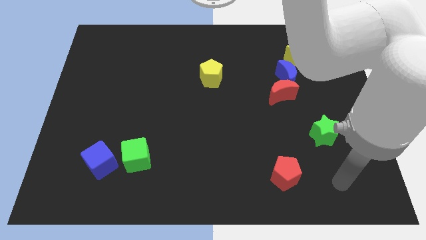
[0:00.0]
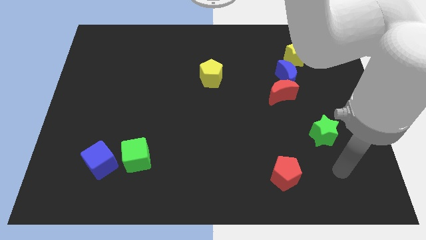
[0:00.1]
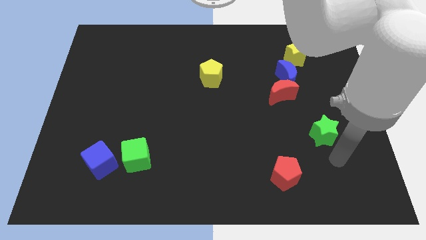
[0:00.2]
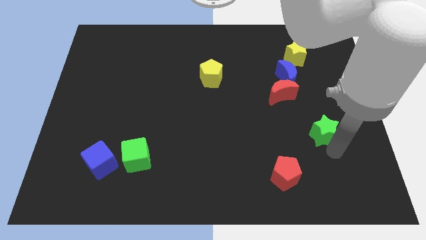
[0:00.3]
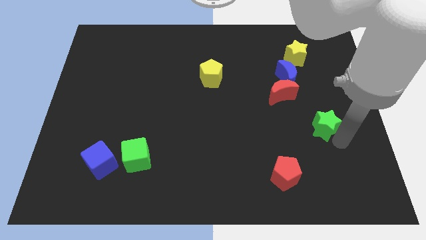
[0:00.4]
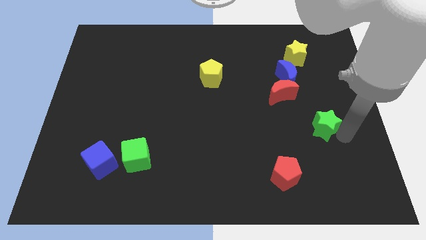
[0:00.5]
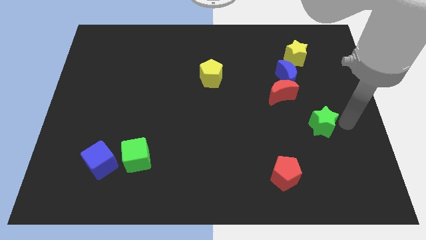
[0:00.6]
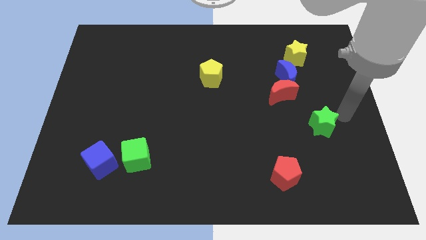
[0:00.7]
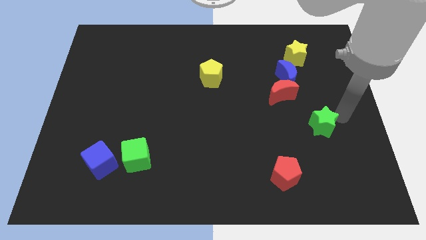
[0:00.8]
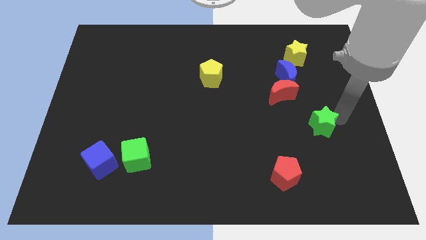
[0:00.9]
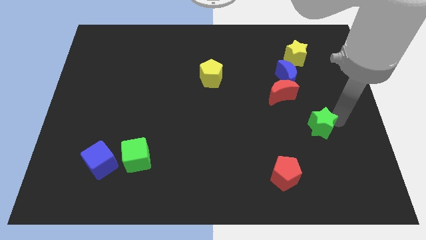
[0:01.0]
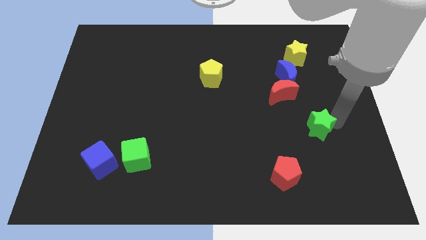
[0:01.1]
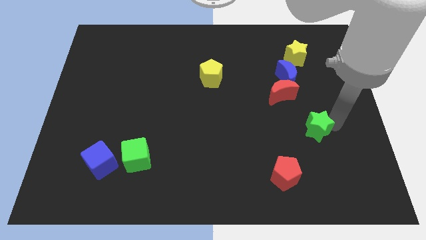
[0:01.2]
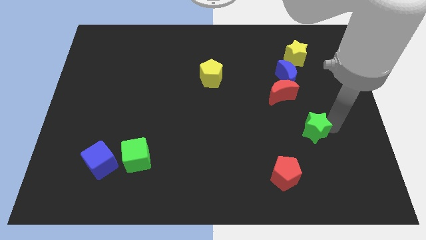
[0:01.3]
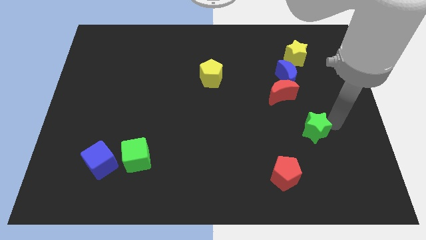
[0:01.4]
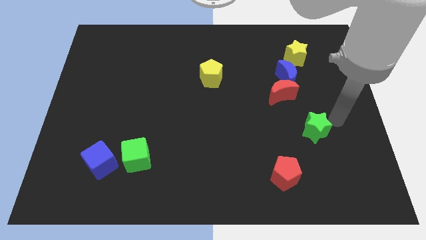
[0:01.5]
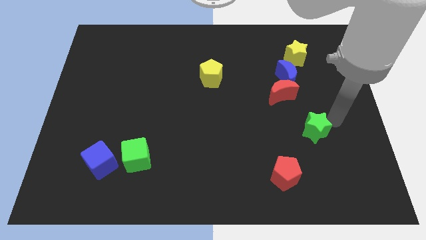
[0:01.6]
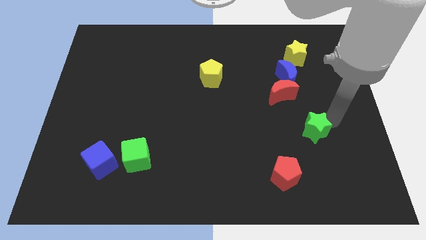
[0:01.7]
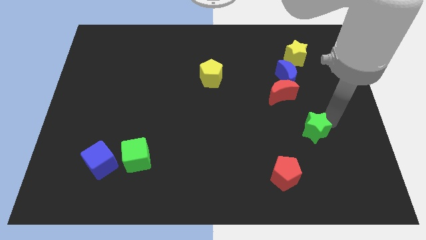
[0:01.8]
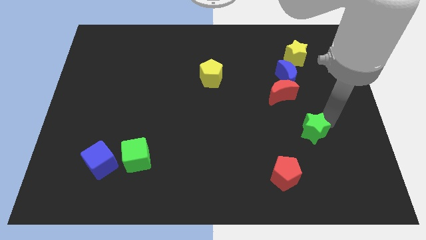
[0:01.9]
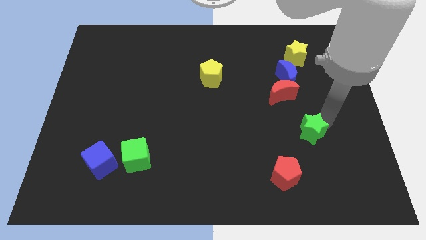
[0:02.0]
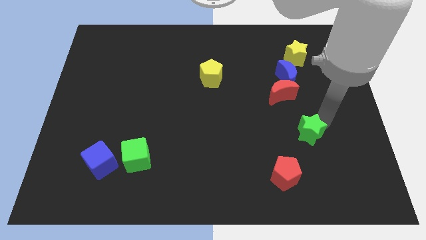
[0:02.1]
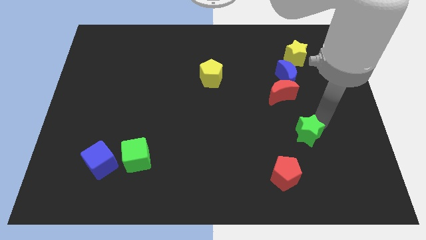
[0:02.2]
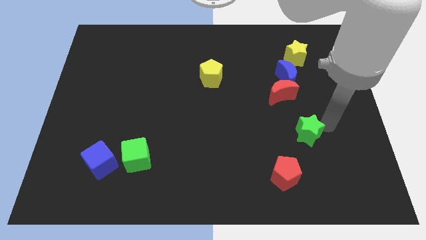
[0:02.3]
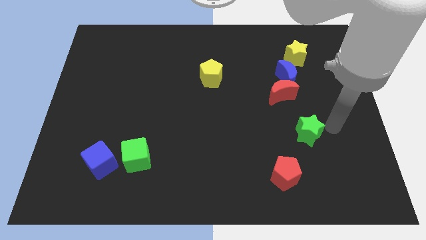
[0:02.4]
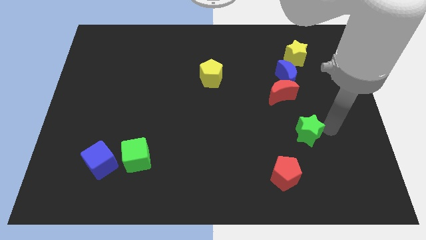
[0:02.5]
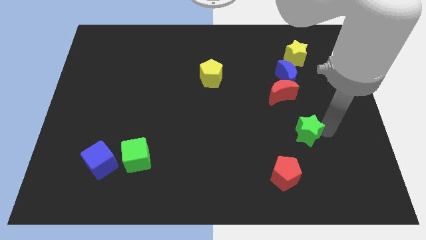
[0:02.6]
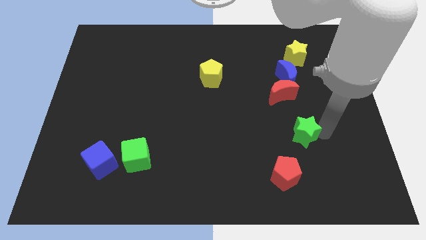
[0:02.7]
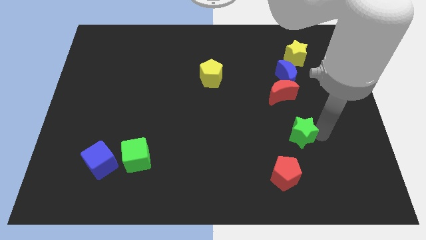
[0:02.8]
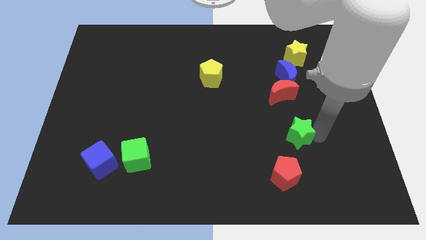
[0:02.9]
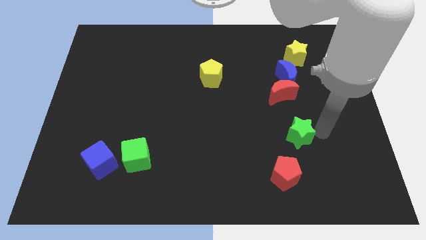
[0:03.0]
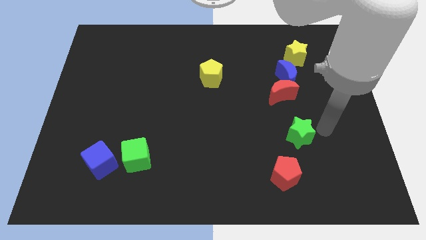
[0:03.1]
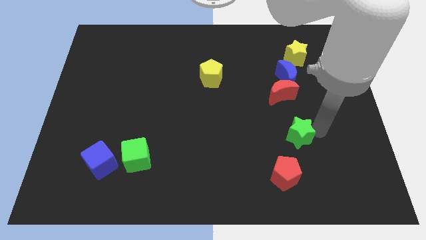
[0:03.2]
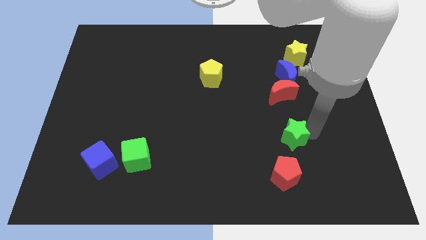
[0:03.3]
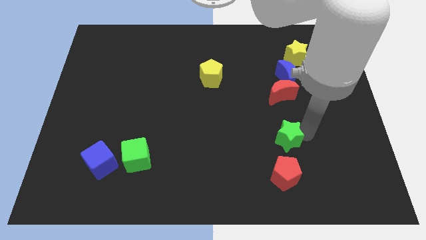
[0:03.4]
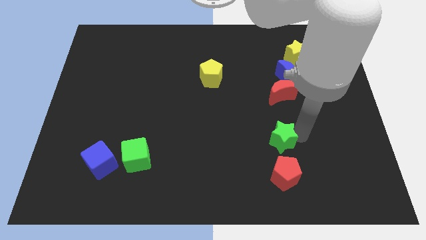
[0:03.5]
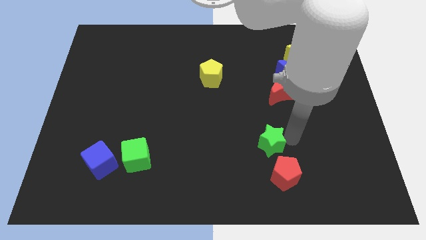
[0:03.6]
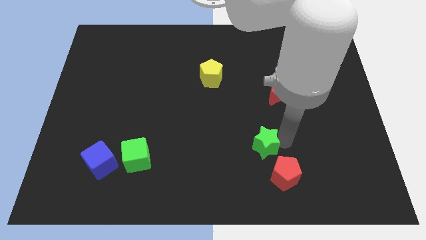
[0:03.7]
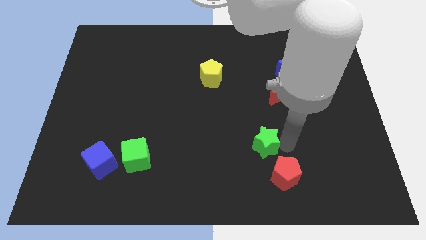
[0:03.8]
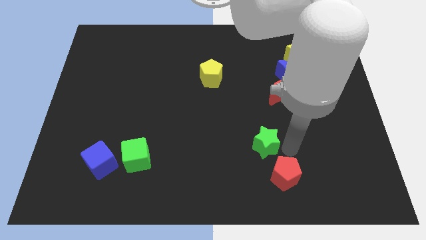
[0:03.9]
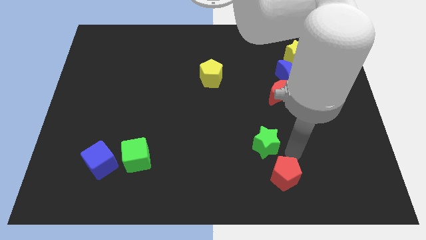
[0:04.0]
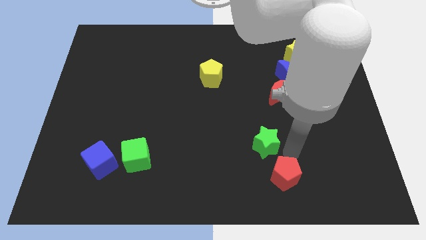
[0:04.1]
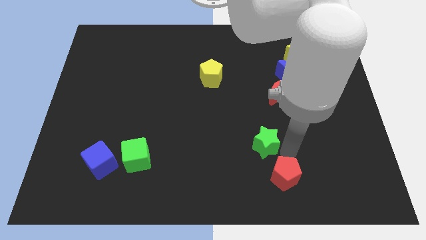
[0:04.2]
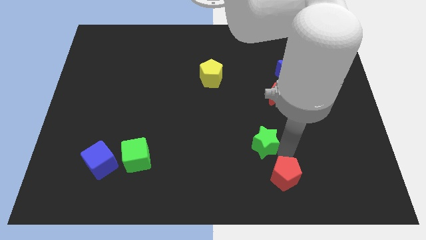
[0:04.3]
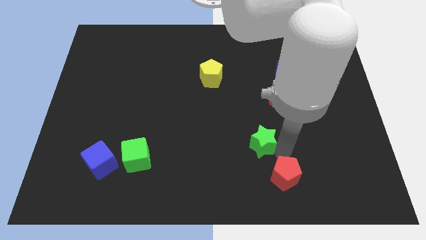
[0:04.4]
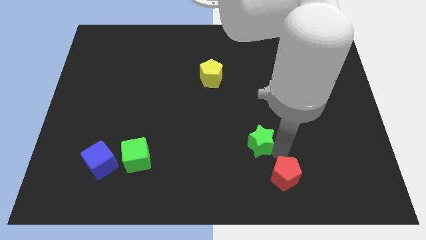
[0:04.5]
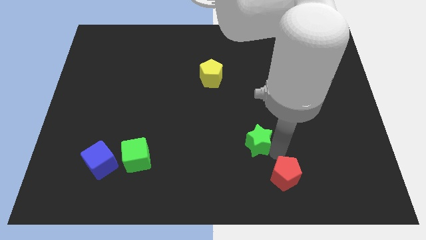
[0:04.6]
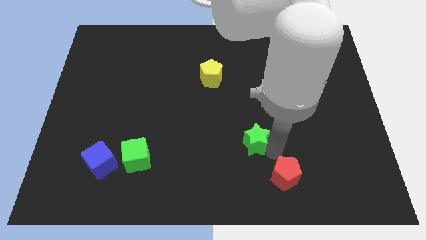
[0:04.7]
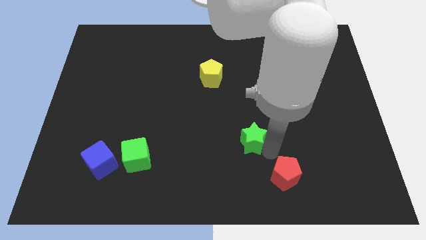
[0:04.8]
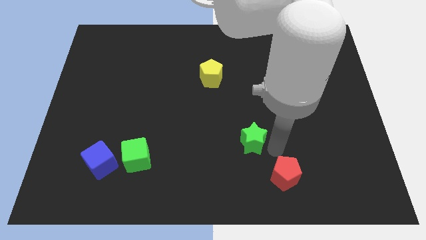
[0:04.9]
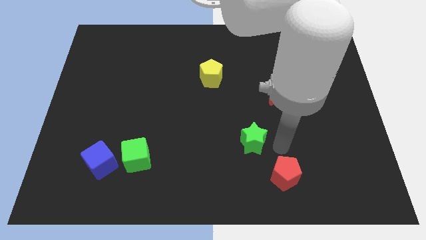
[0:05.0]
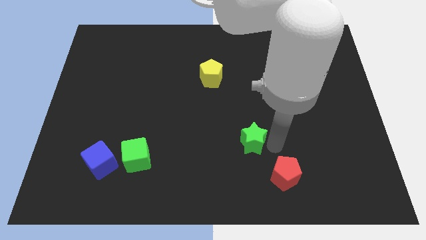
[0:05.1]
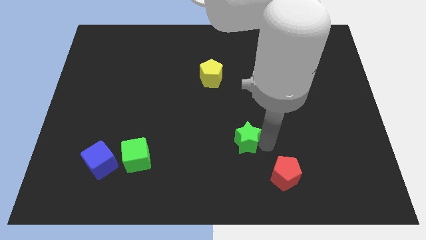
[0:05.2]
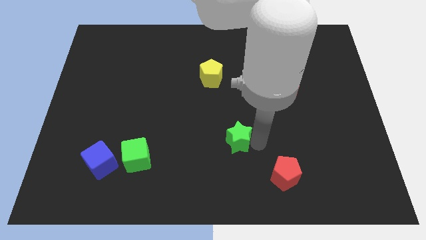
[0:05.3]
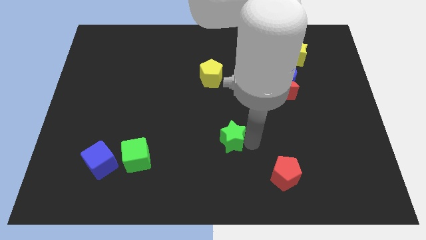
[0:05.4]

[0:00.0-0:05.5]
move the green star left

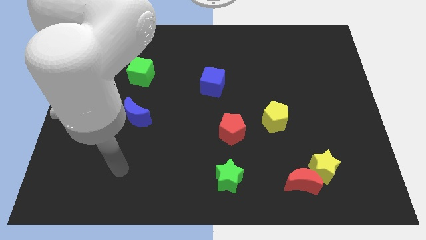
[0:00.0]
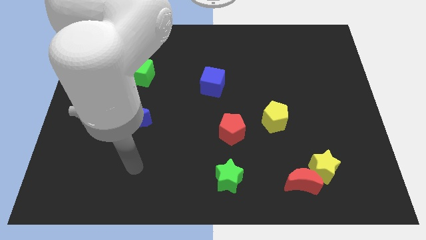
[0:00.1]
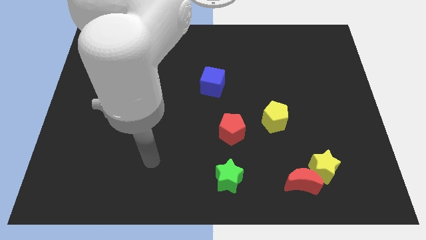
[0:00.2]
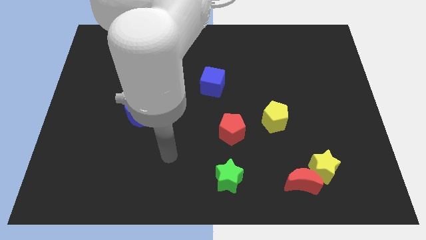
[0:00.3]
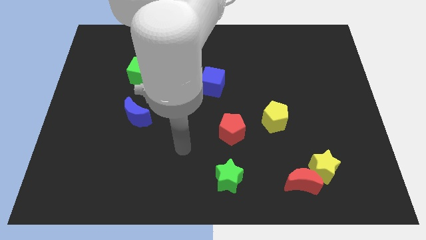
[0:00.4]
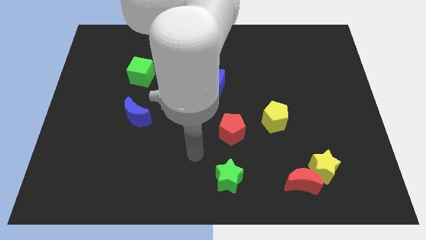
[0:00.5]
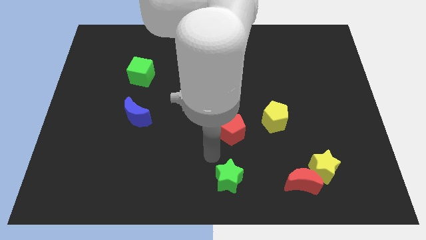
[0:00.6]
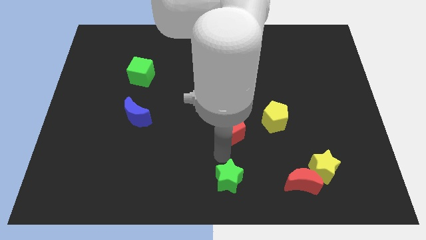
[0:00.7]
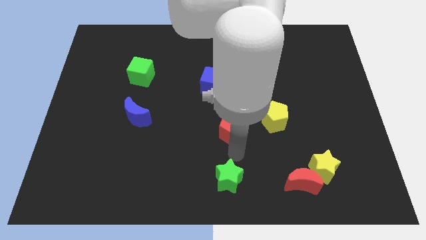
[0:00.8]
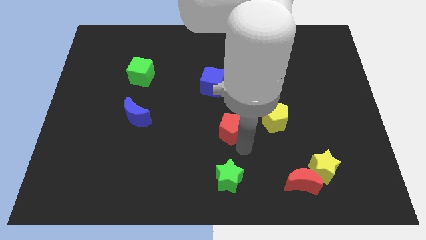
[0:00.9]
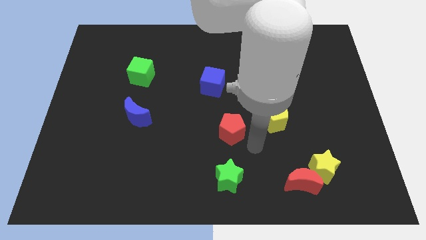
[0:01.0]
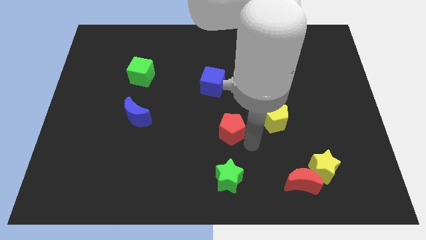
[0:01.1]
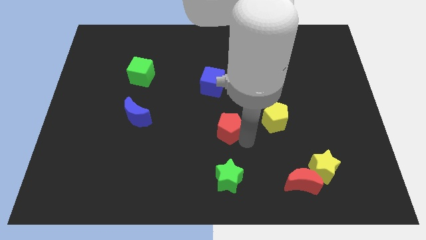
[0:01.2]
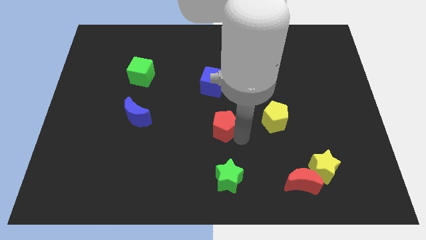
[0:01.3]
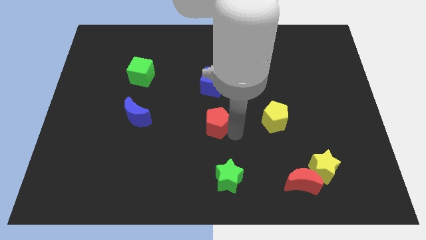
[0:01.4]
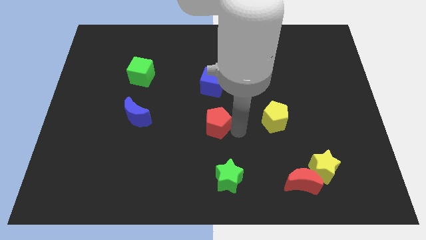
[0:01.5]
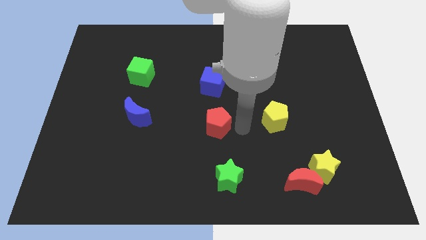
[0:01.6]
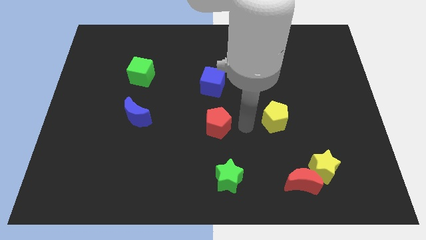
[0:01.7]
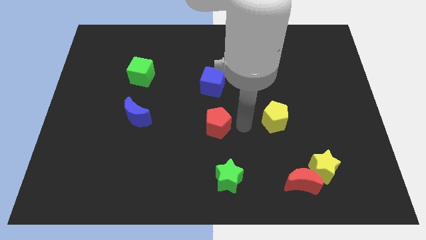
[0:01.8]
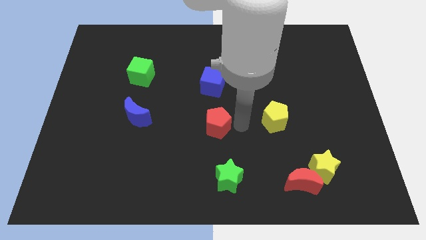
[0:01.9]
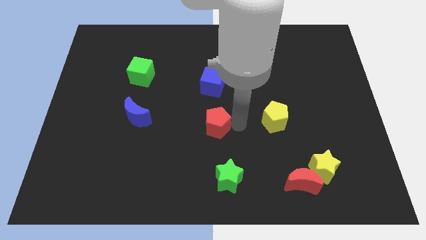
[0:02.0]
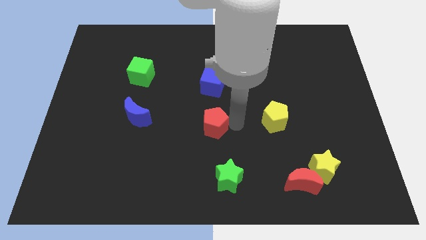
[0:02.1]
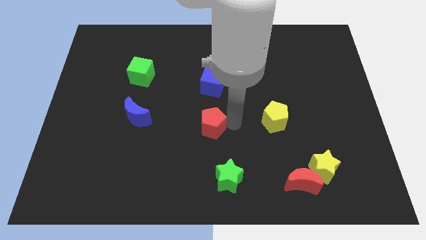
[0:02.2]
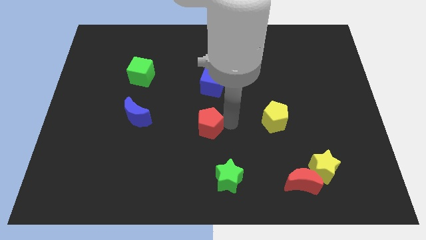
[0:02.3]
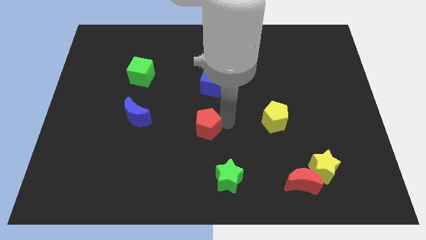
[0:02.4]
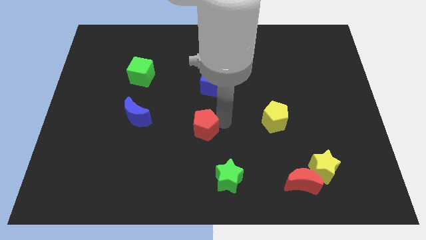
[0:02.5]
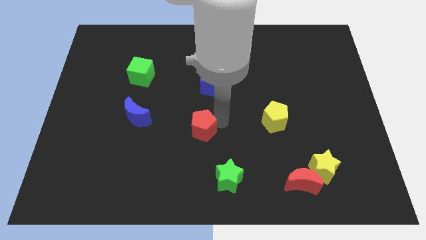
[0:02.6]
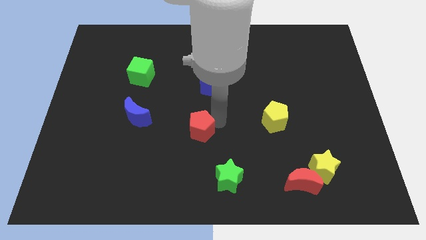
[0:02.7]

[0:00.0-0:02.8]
push the red pentagon slightly to the left
